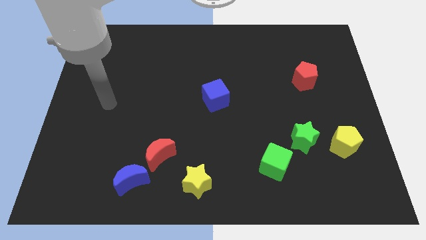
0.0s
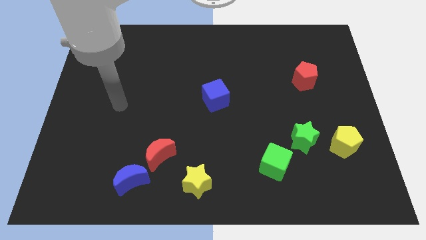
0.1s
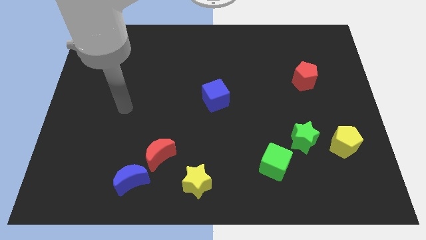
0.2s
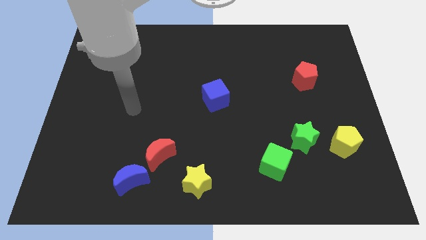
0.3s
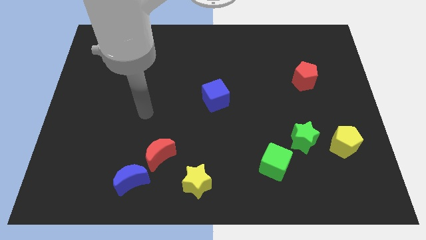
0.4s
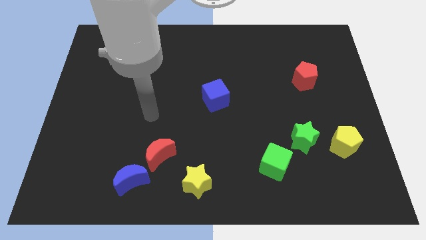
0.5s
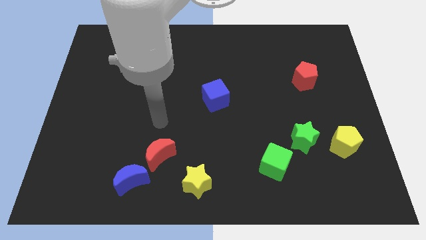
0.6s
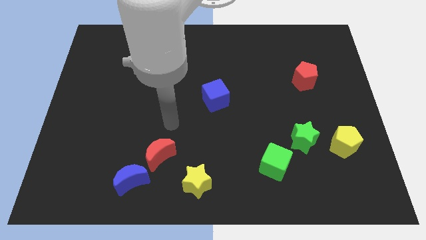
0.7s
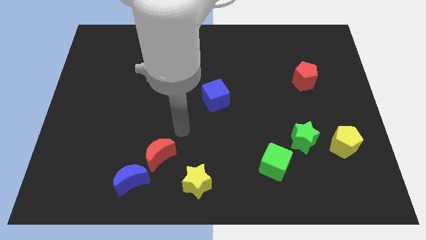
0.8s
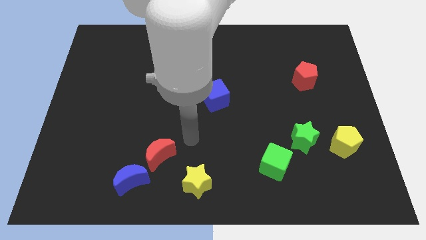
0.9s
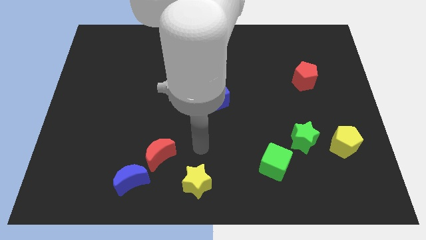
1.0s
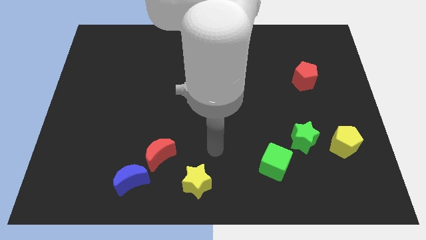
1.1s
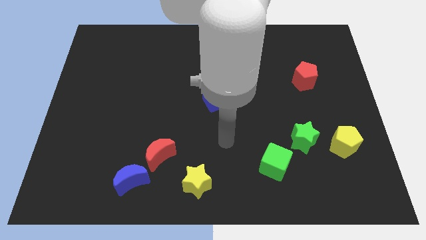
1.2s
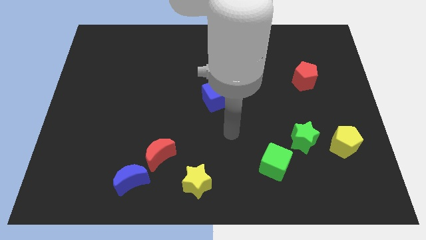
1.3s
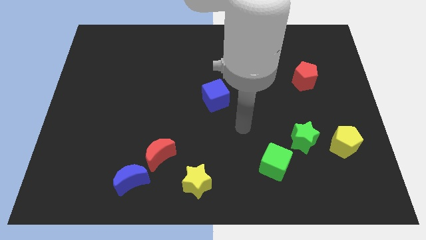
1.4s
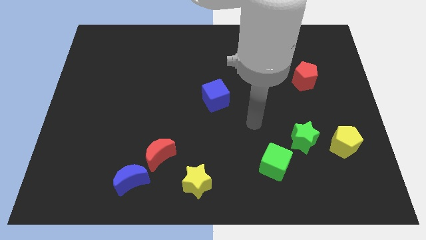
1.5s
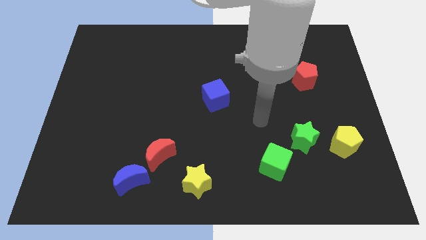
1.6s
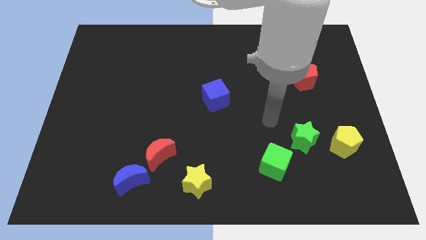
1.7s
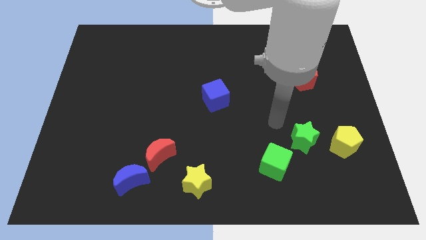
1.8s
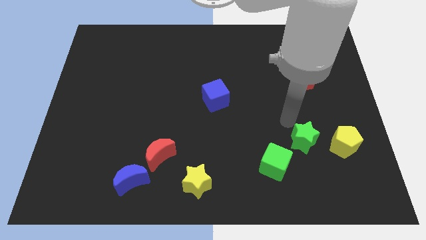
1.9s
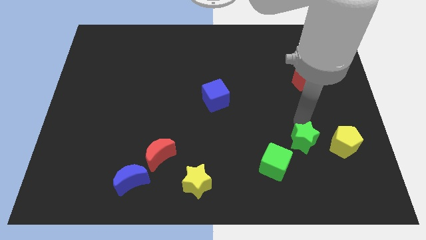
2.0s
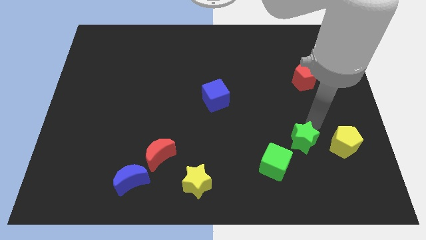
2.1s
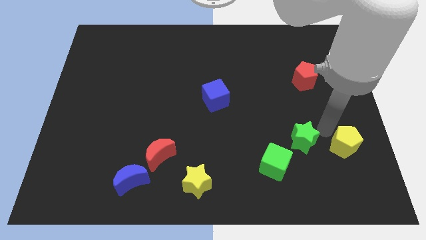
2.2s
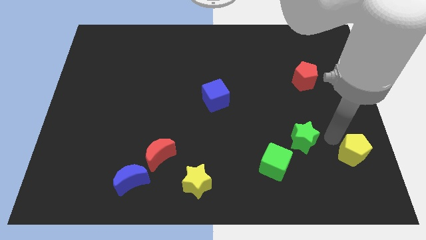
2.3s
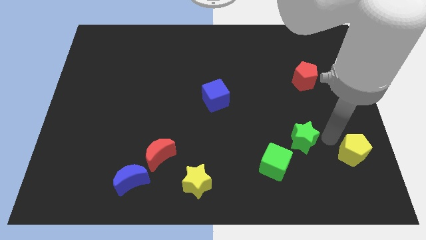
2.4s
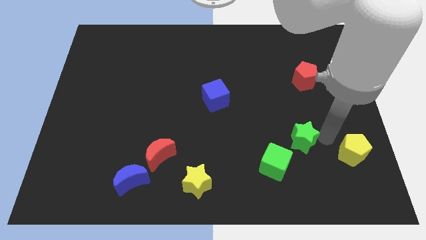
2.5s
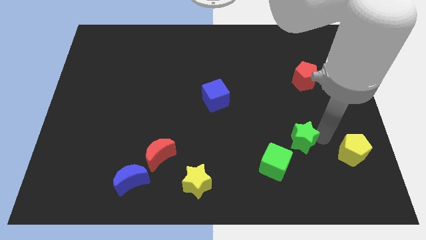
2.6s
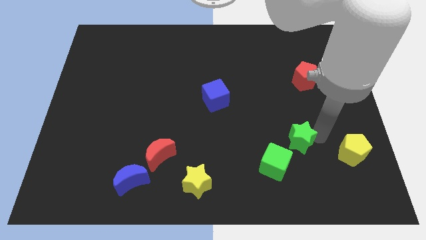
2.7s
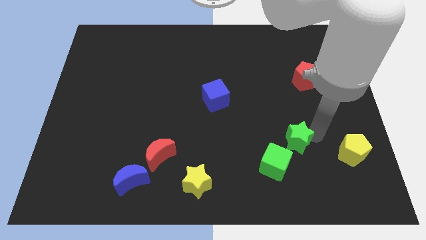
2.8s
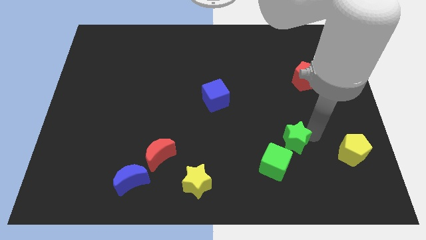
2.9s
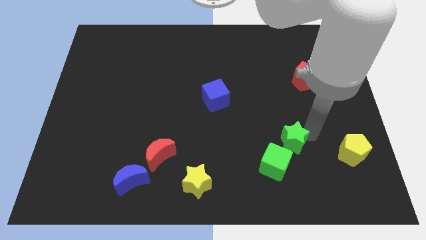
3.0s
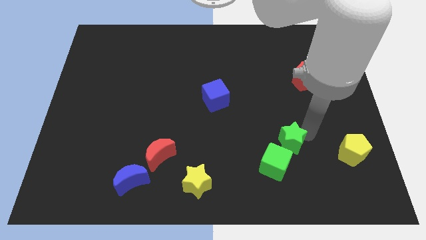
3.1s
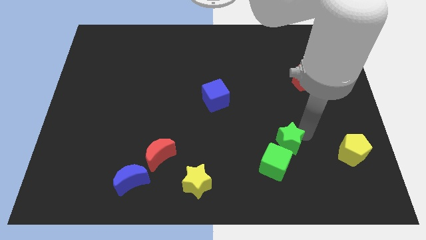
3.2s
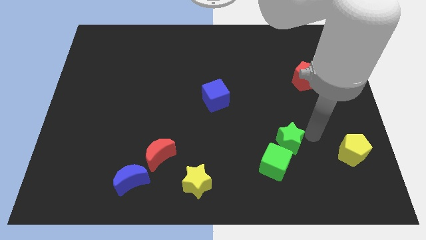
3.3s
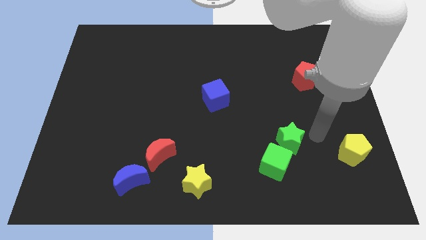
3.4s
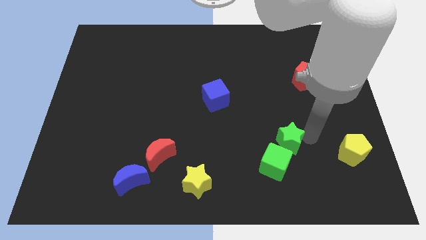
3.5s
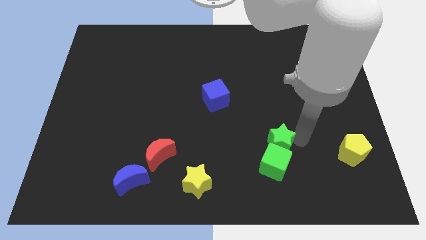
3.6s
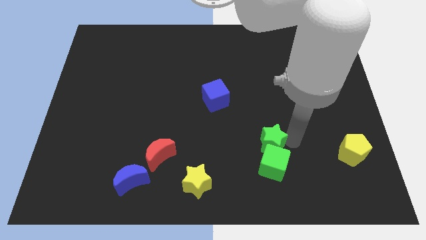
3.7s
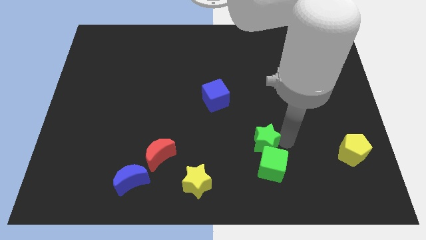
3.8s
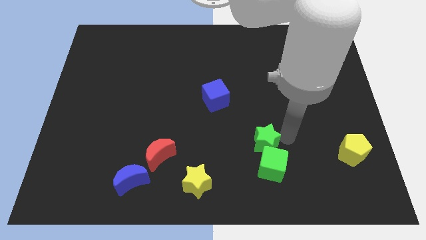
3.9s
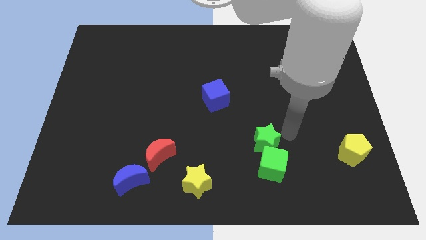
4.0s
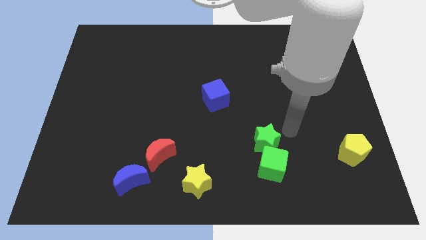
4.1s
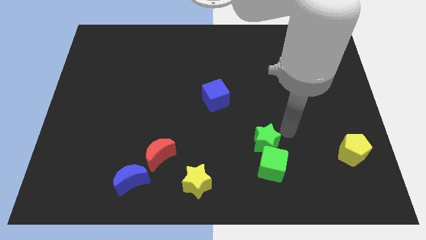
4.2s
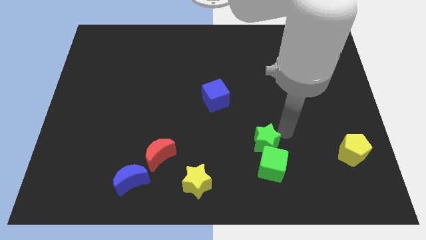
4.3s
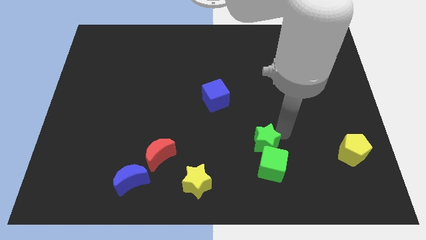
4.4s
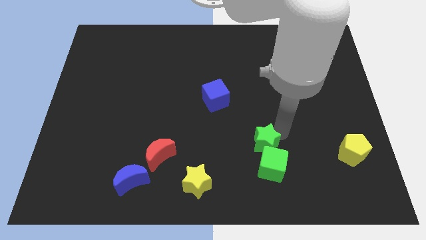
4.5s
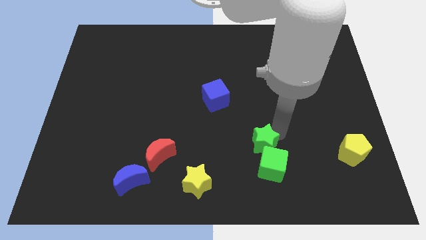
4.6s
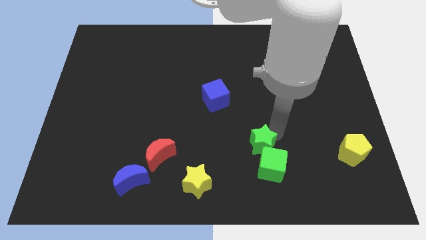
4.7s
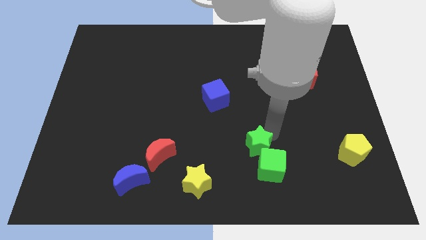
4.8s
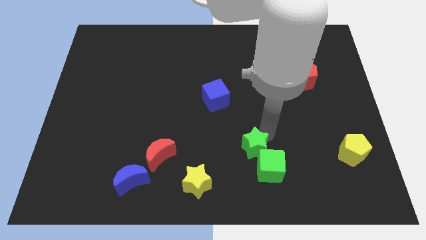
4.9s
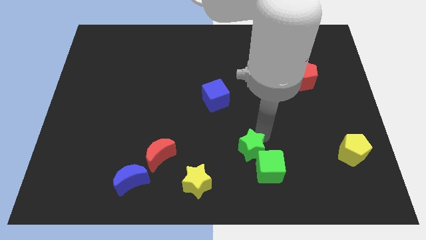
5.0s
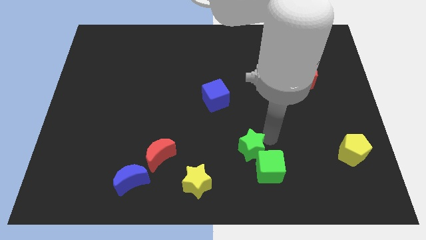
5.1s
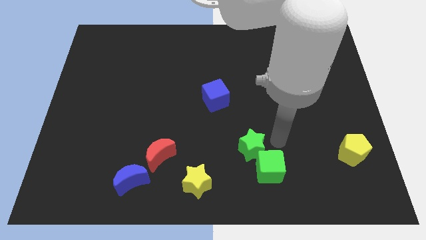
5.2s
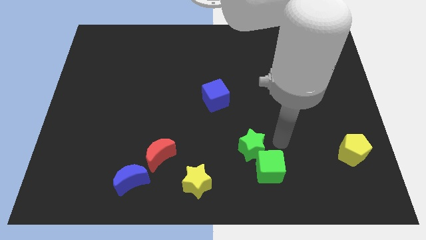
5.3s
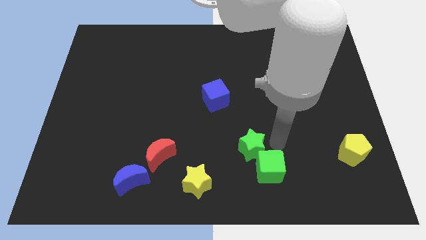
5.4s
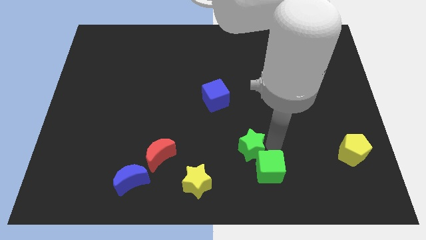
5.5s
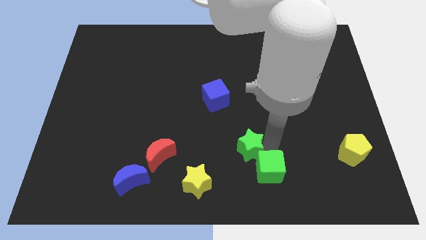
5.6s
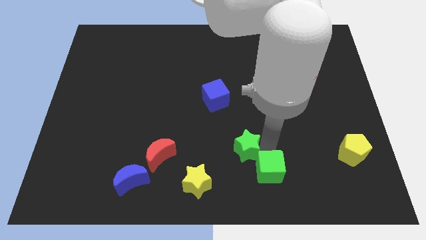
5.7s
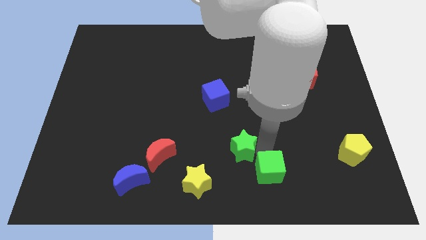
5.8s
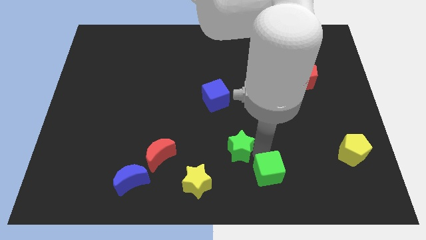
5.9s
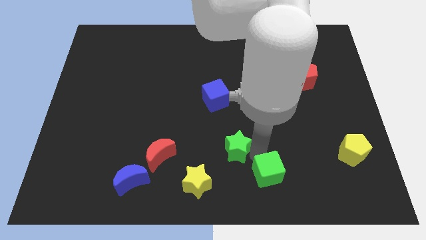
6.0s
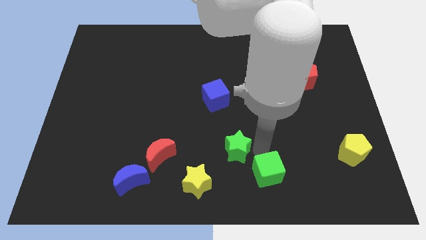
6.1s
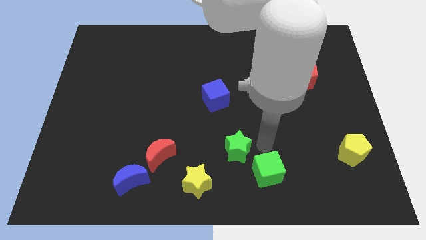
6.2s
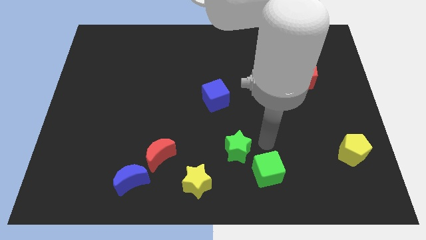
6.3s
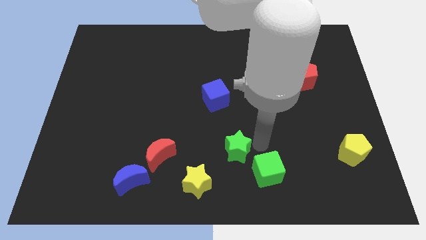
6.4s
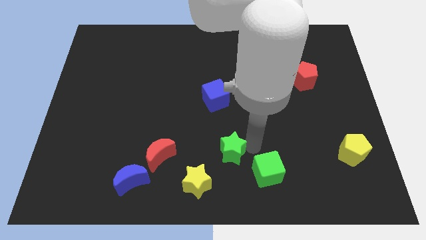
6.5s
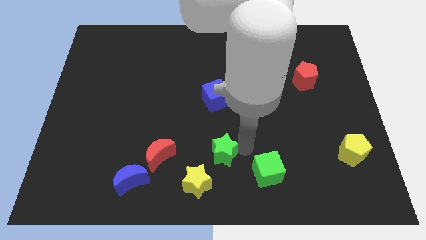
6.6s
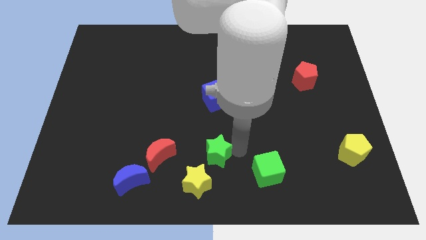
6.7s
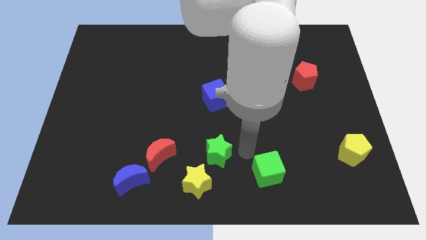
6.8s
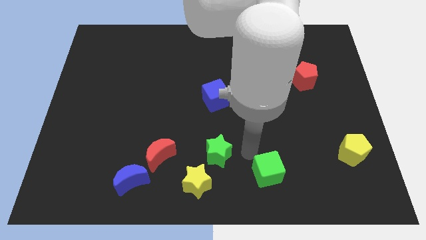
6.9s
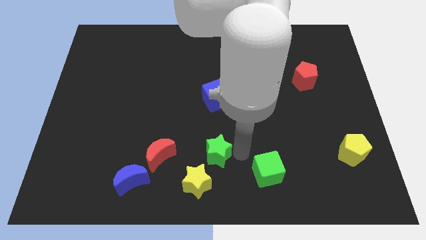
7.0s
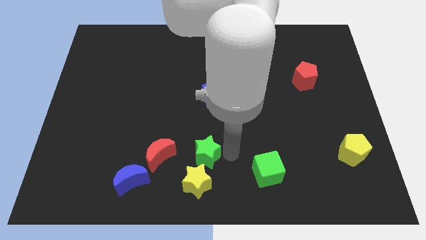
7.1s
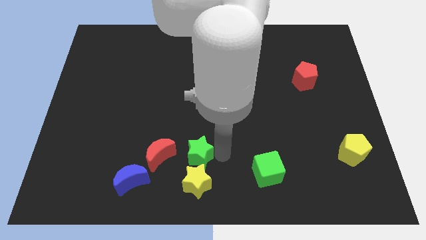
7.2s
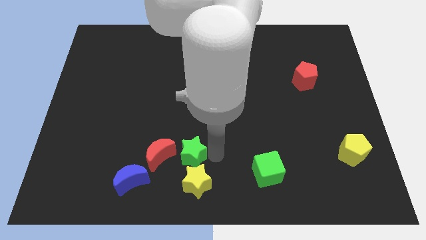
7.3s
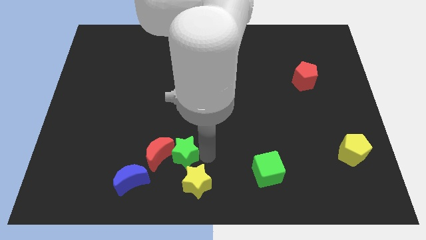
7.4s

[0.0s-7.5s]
slide the green star towards the red moon
